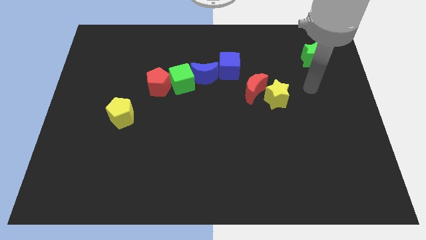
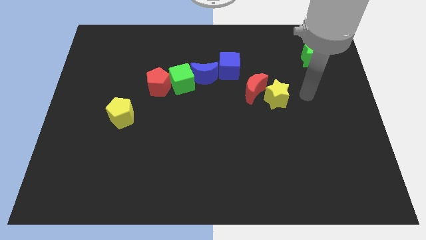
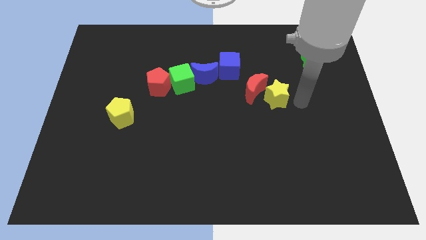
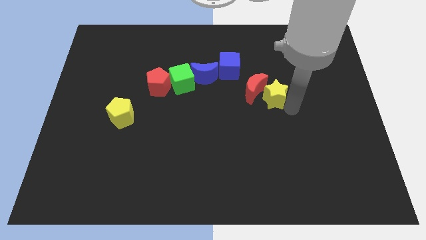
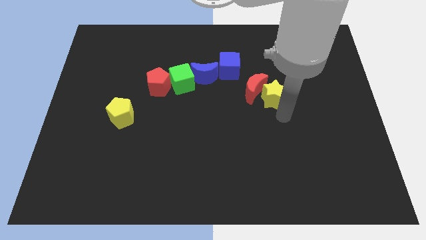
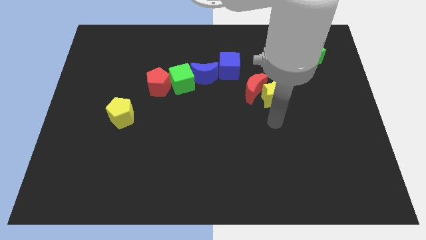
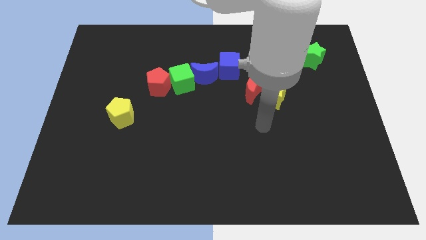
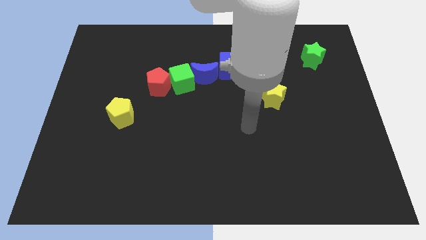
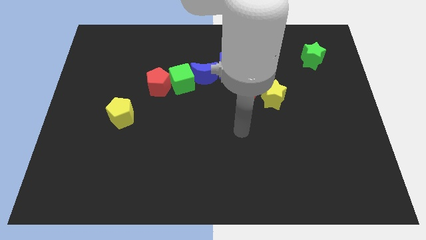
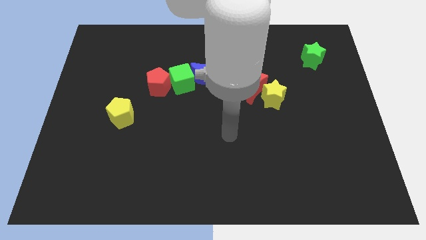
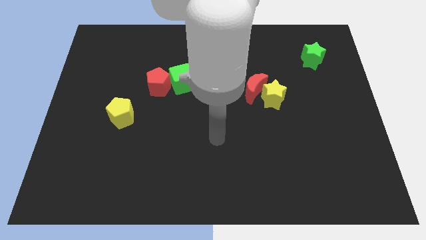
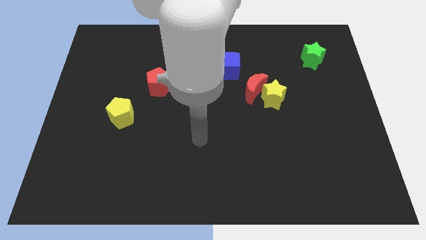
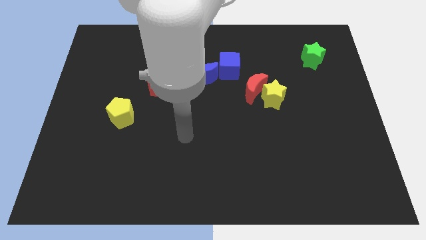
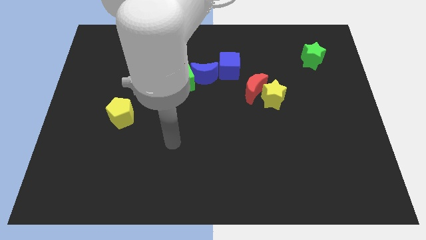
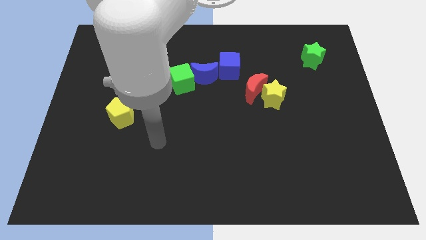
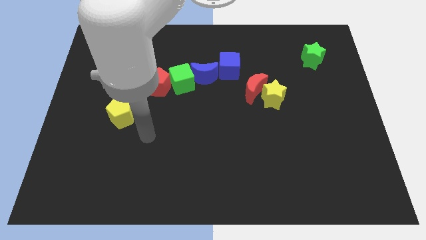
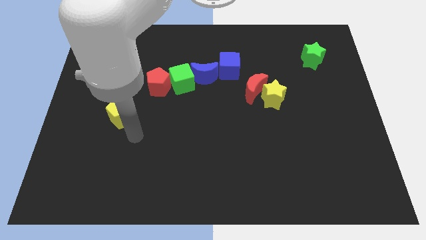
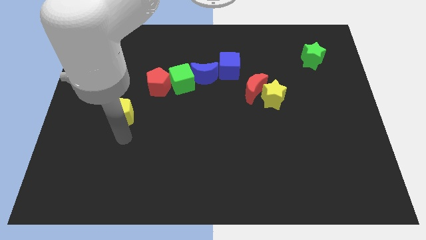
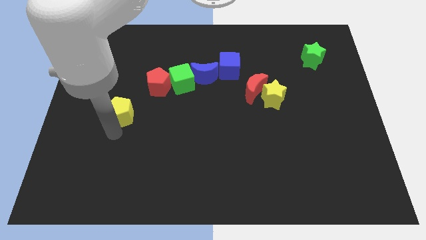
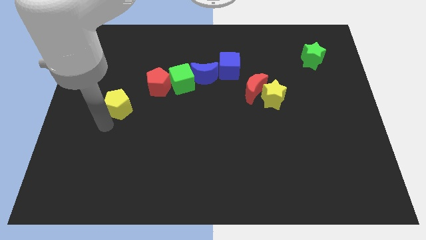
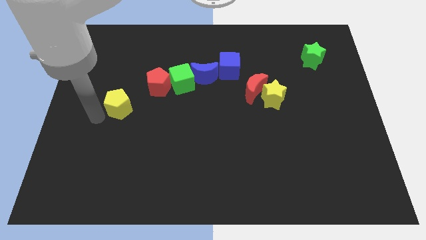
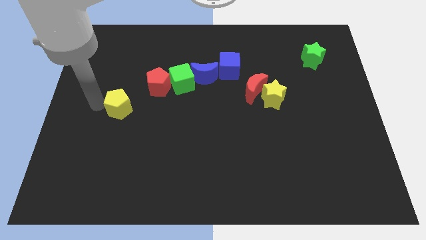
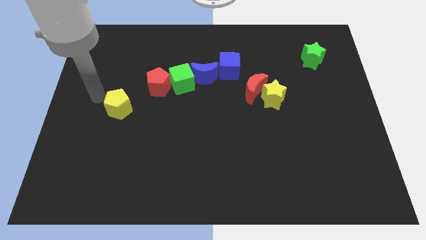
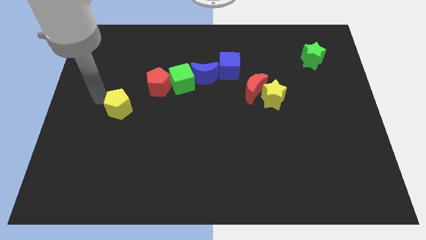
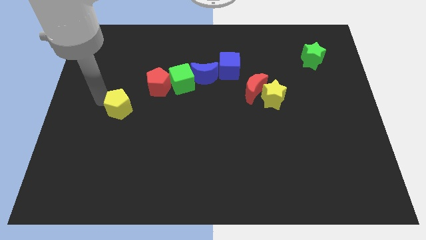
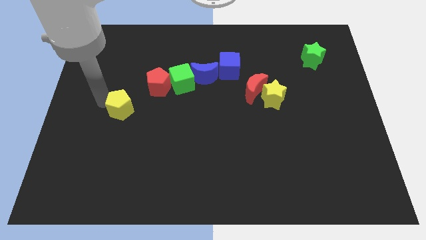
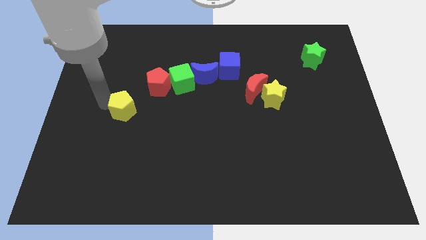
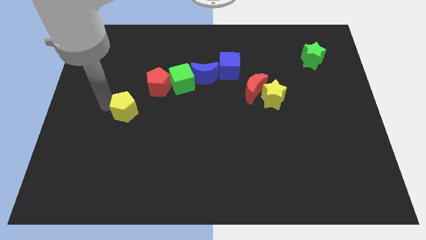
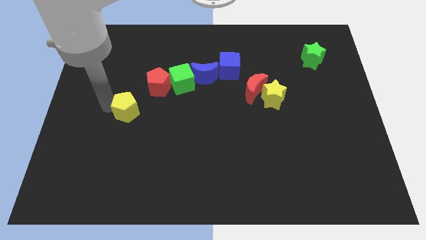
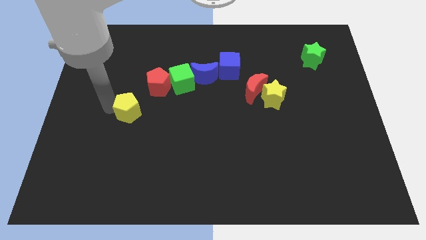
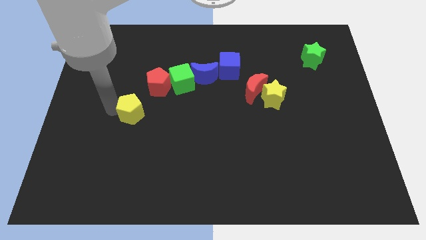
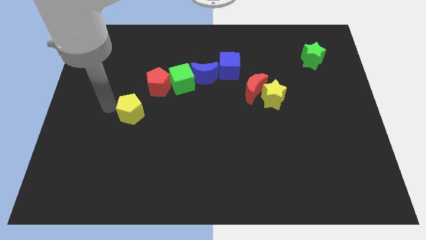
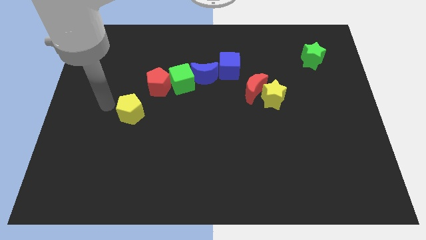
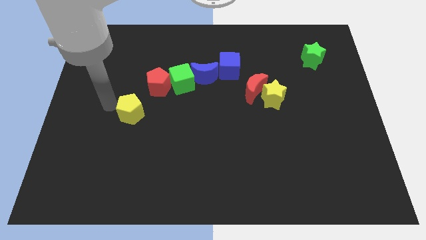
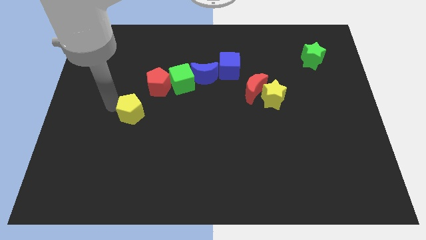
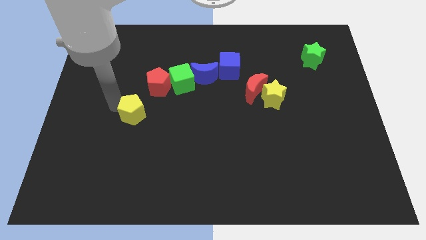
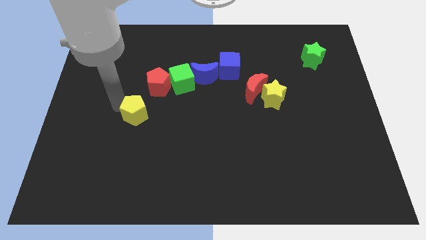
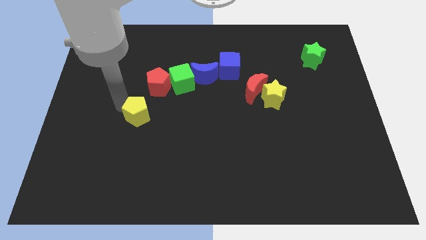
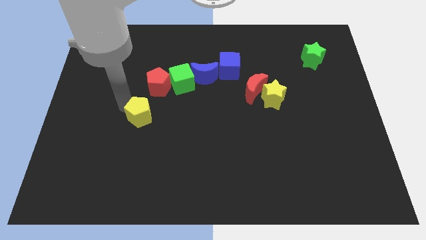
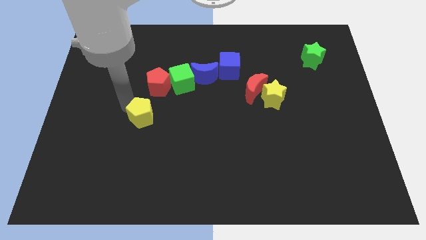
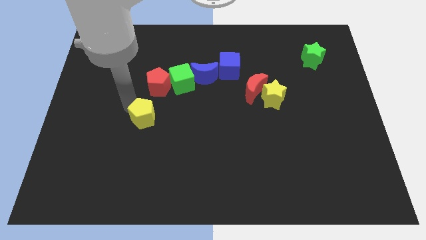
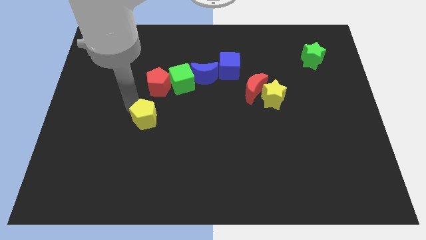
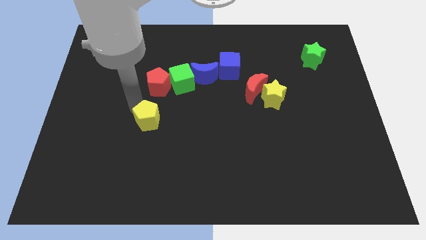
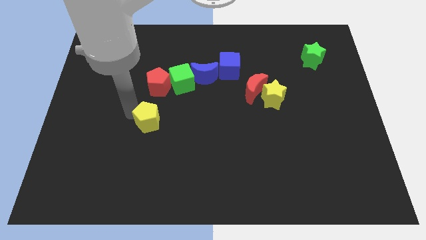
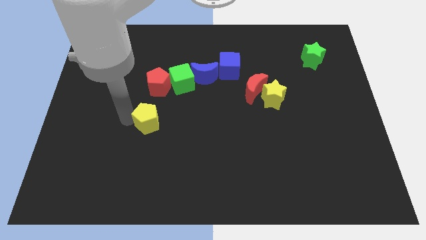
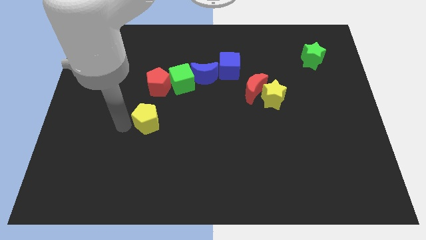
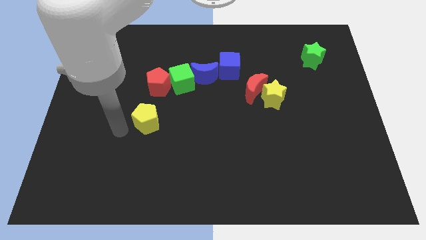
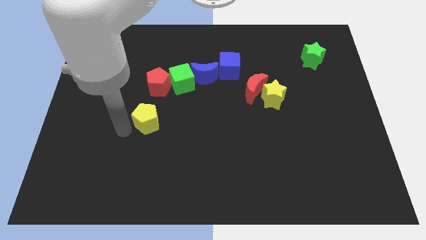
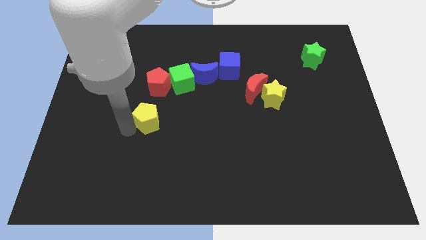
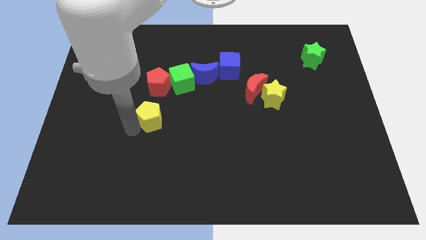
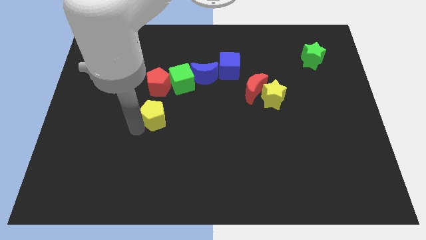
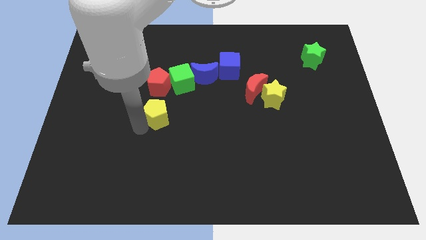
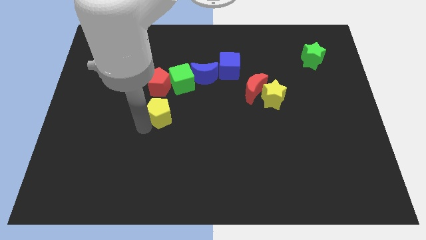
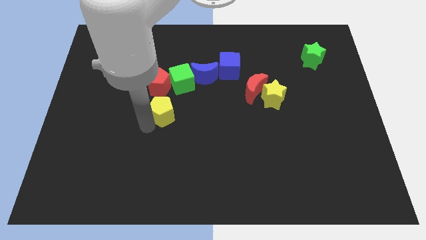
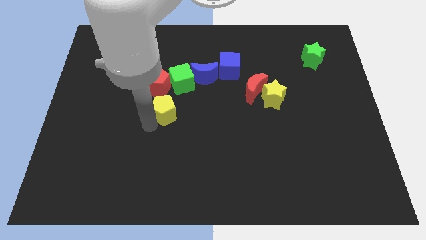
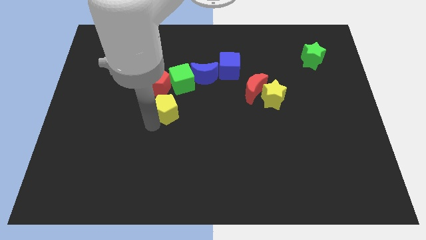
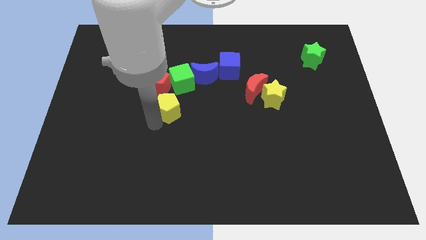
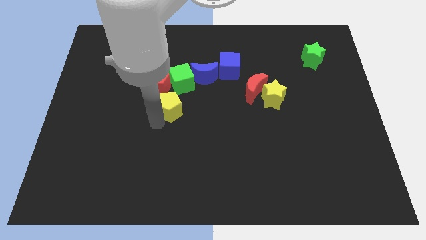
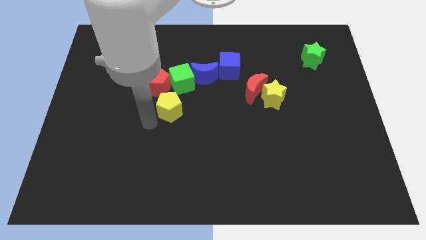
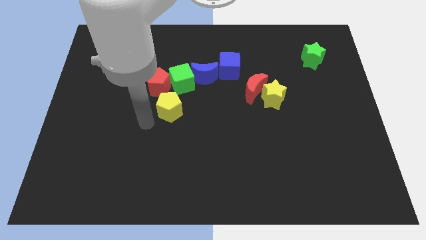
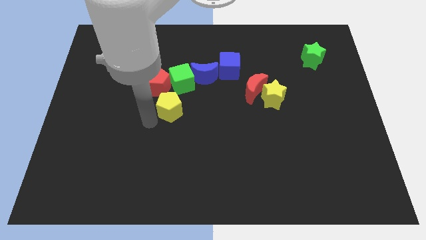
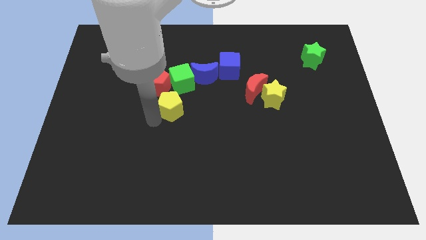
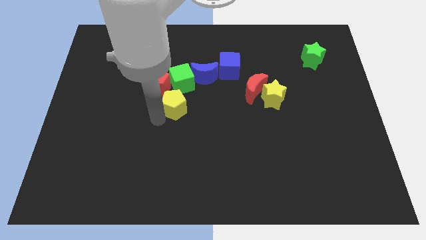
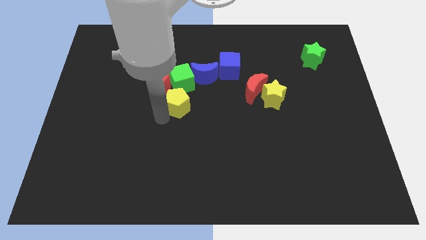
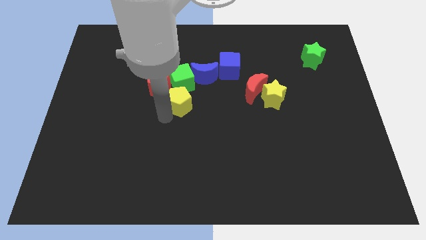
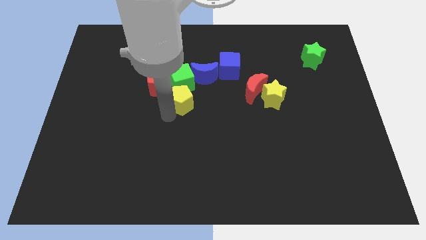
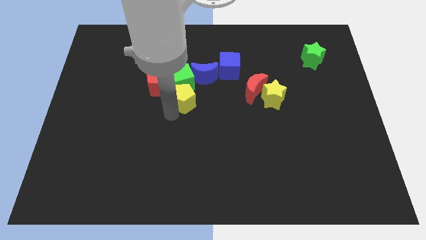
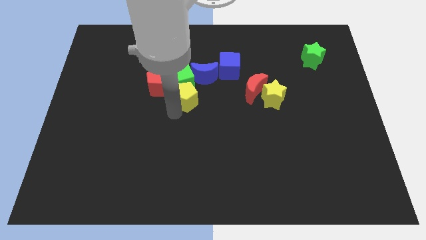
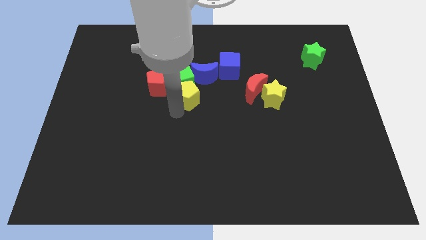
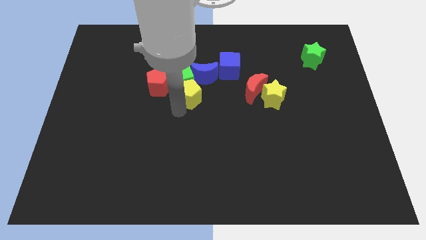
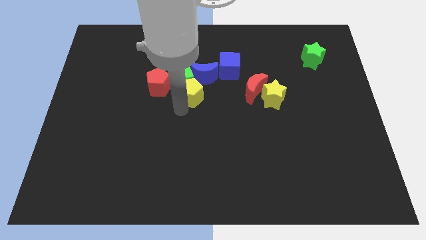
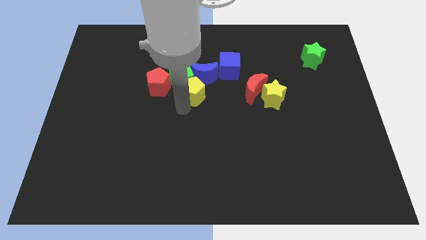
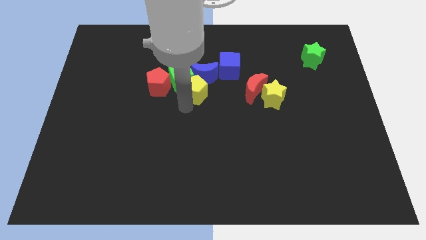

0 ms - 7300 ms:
slide the yellow pentagon towards the blue moon
